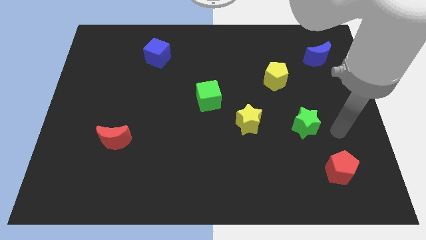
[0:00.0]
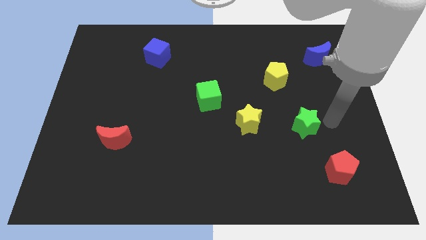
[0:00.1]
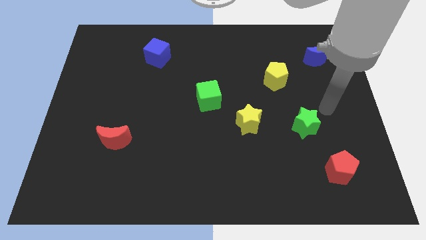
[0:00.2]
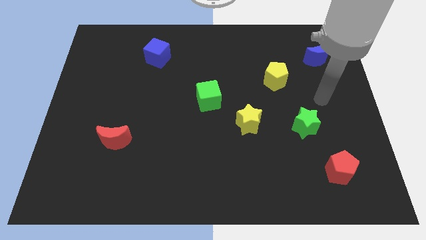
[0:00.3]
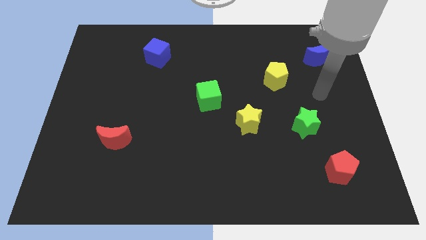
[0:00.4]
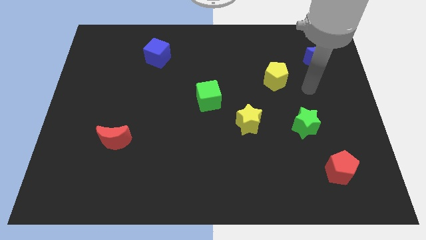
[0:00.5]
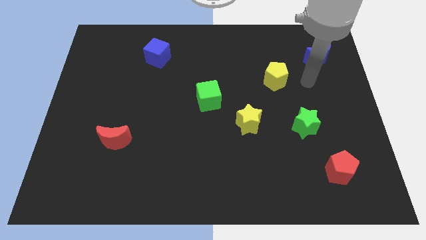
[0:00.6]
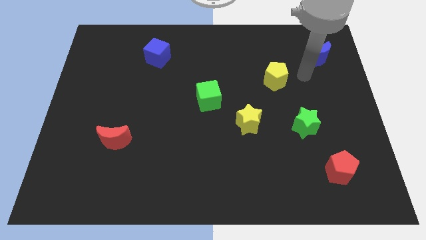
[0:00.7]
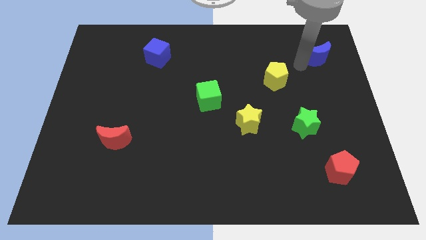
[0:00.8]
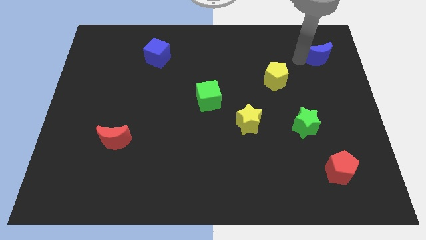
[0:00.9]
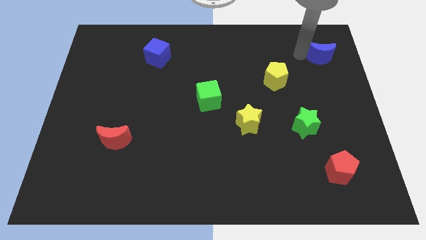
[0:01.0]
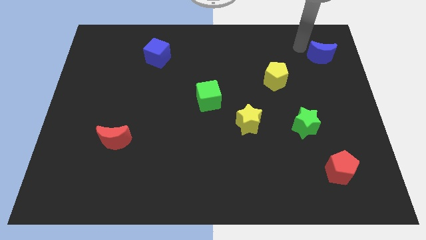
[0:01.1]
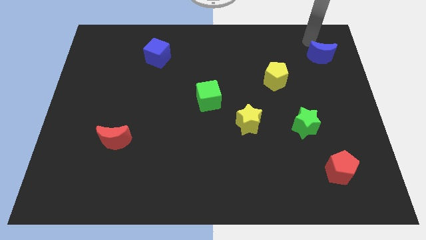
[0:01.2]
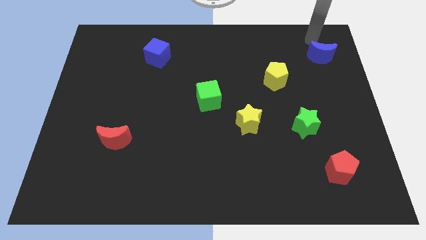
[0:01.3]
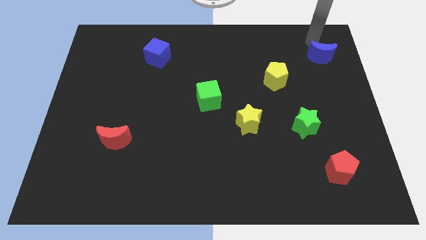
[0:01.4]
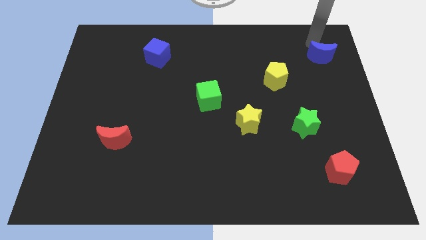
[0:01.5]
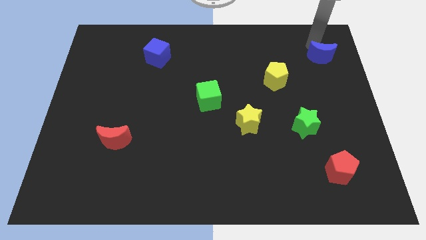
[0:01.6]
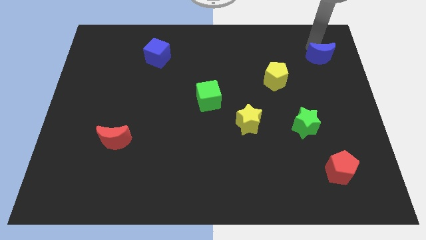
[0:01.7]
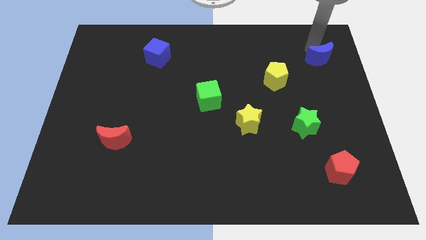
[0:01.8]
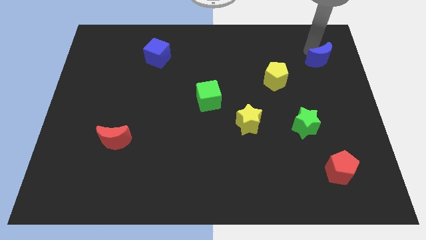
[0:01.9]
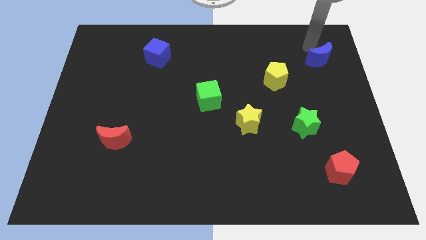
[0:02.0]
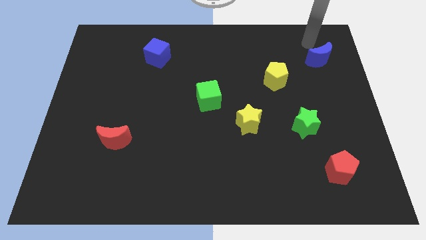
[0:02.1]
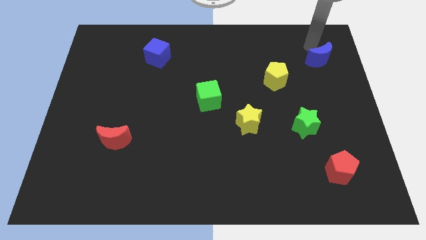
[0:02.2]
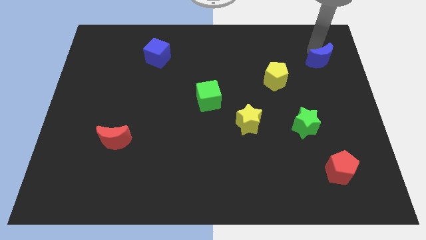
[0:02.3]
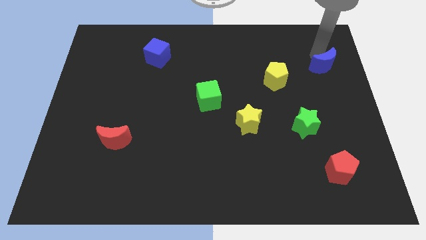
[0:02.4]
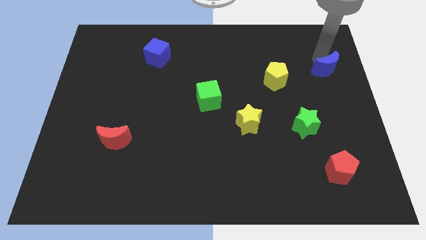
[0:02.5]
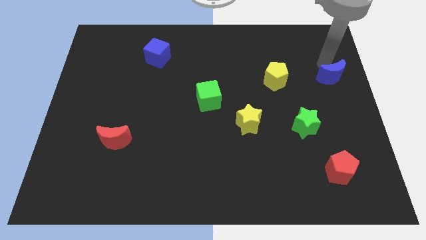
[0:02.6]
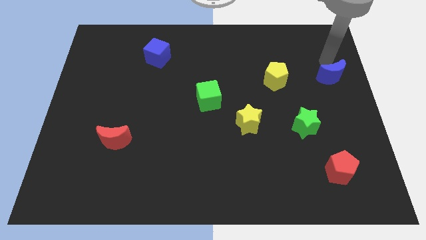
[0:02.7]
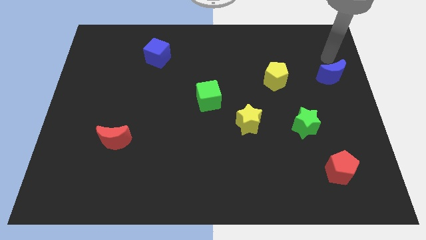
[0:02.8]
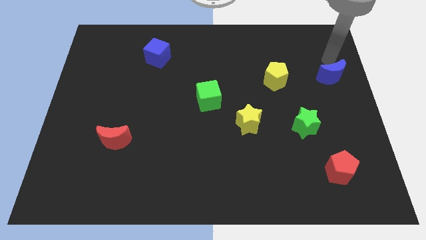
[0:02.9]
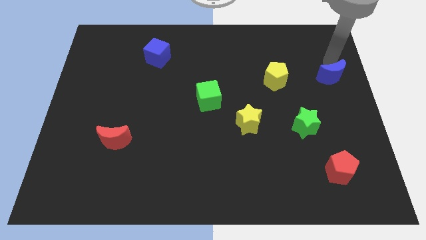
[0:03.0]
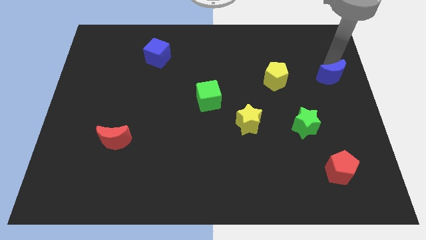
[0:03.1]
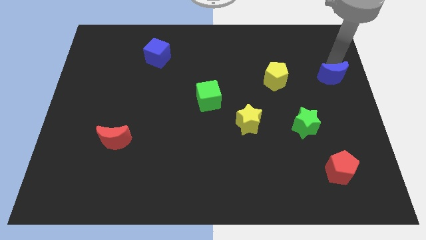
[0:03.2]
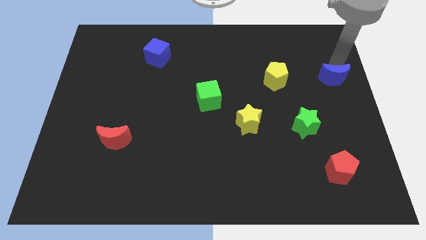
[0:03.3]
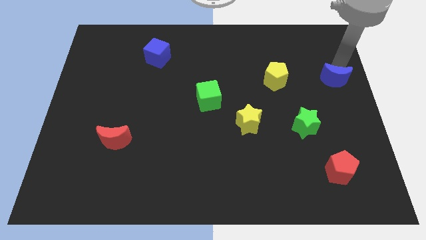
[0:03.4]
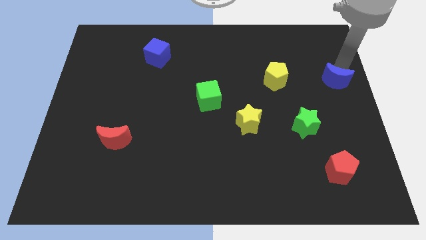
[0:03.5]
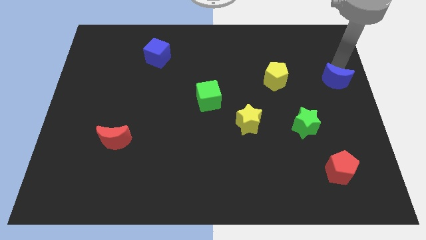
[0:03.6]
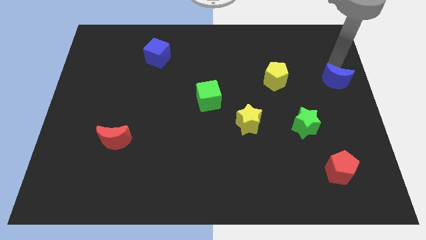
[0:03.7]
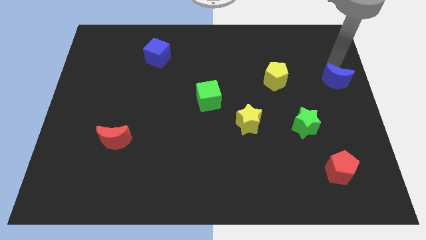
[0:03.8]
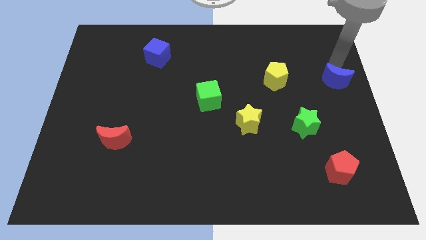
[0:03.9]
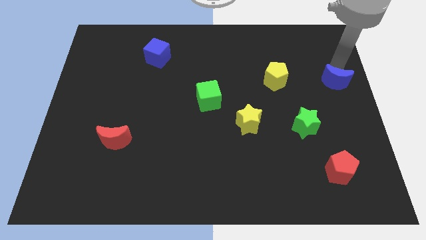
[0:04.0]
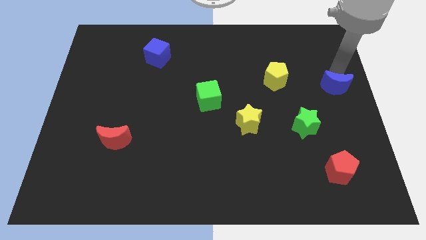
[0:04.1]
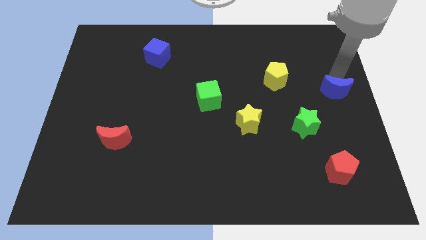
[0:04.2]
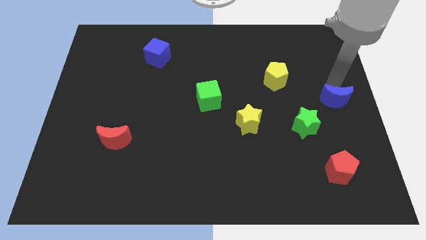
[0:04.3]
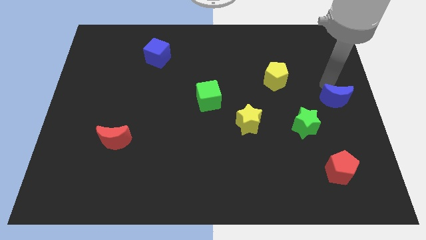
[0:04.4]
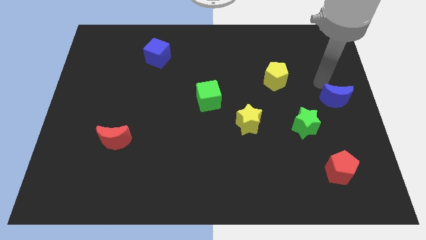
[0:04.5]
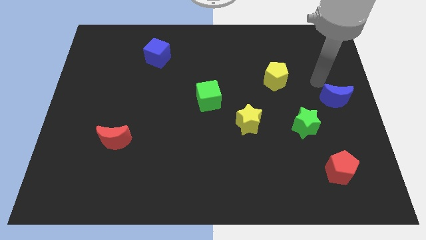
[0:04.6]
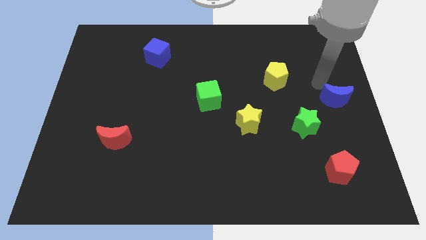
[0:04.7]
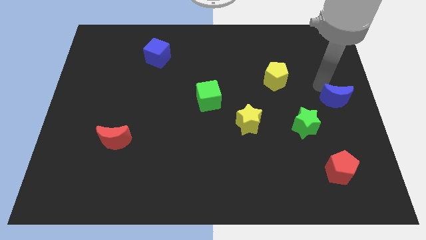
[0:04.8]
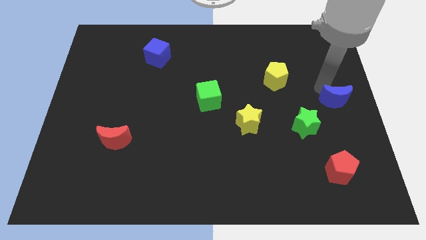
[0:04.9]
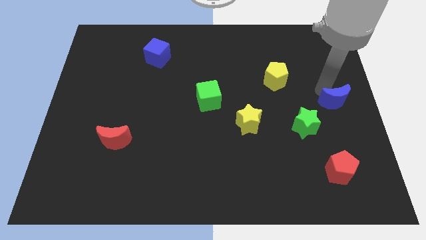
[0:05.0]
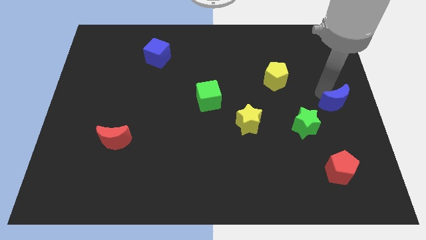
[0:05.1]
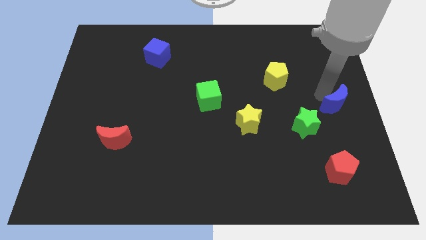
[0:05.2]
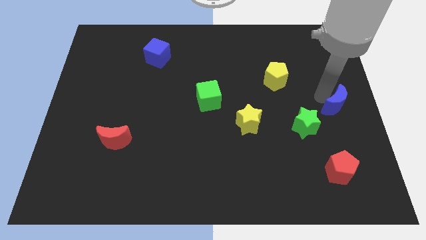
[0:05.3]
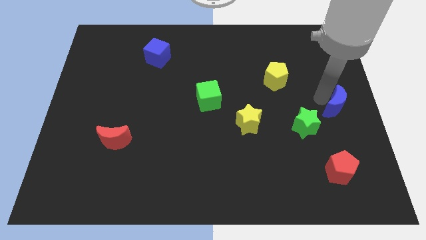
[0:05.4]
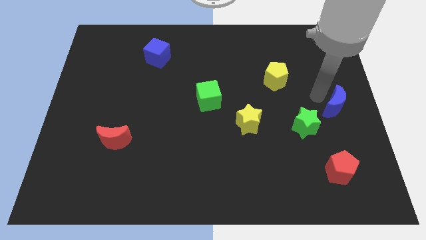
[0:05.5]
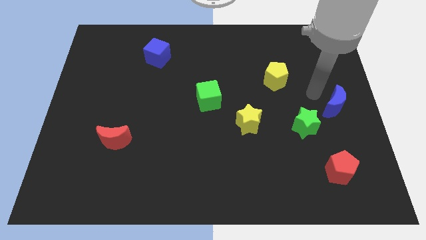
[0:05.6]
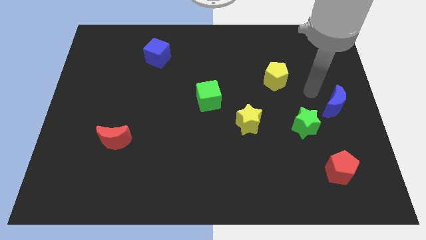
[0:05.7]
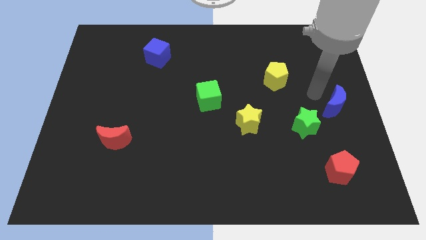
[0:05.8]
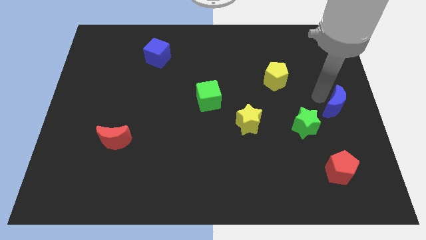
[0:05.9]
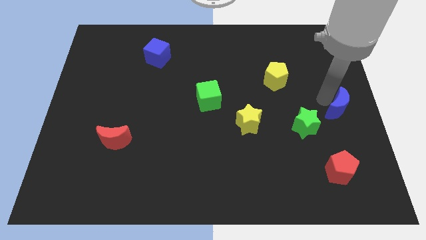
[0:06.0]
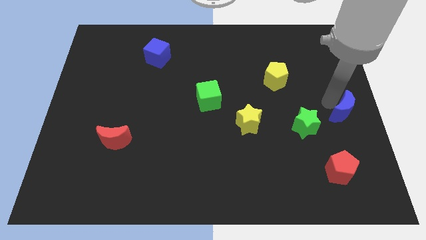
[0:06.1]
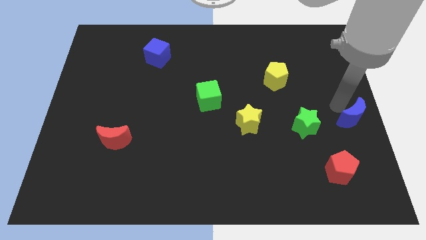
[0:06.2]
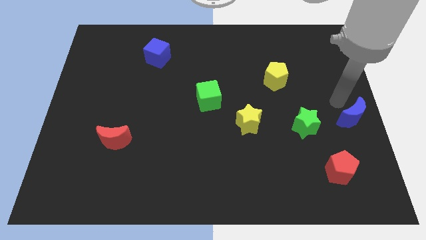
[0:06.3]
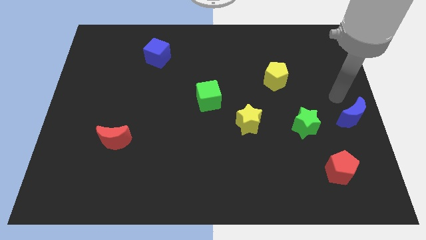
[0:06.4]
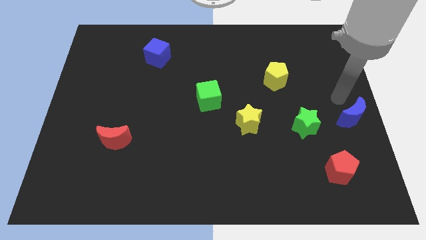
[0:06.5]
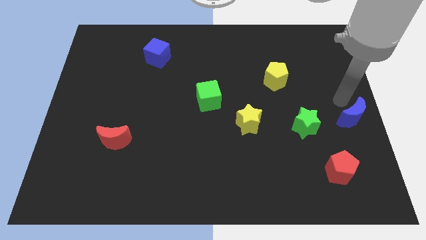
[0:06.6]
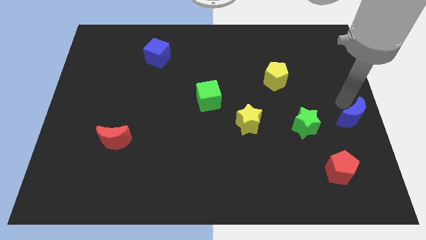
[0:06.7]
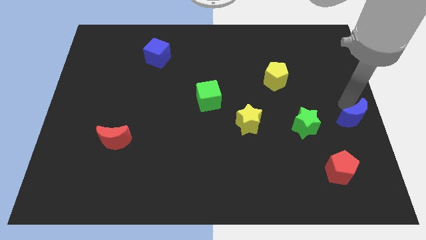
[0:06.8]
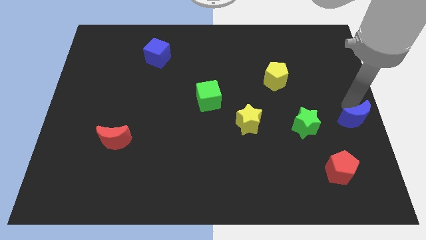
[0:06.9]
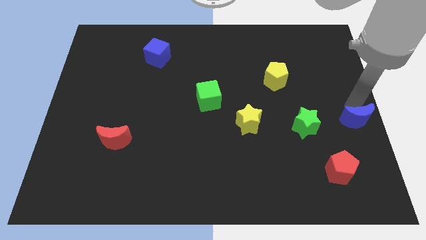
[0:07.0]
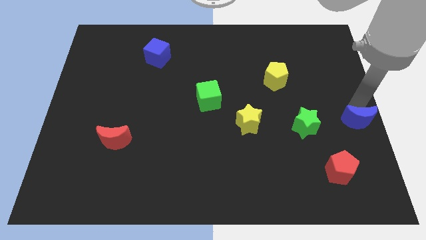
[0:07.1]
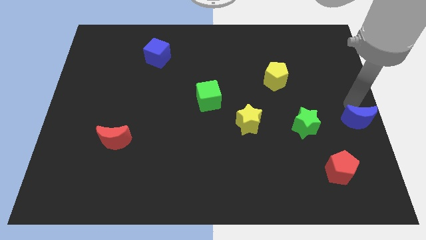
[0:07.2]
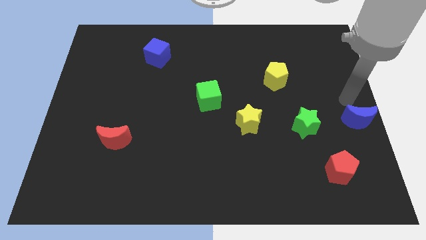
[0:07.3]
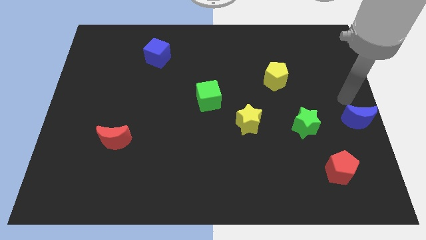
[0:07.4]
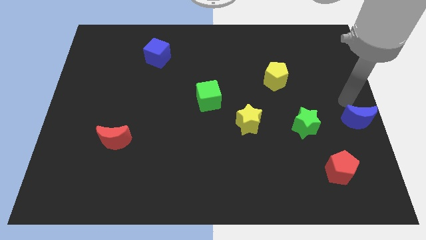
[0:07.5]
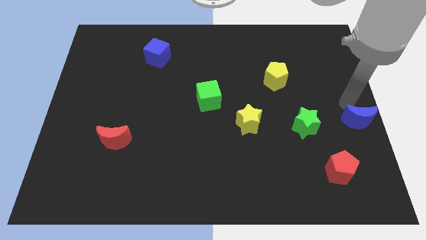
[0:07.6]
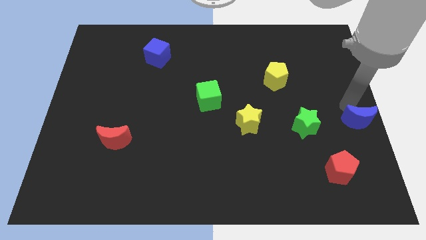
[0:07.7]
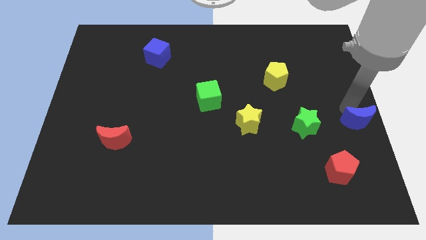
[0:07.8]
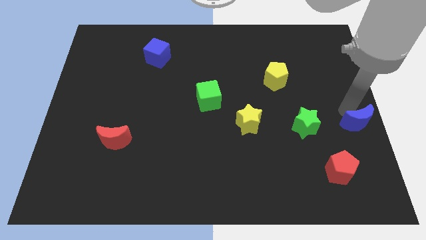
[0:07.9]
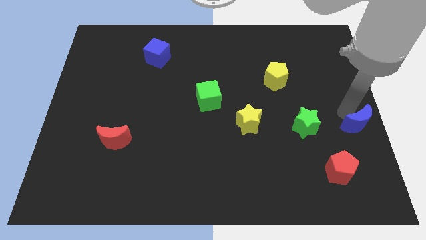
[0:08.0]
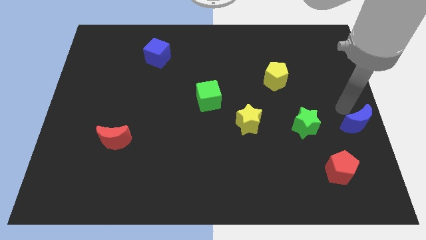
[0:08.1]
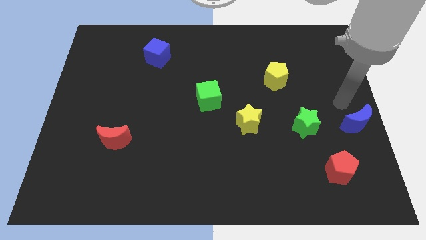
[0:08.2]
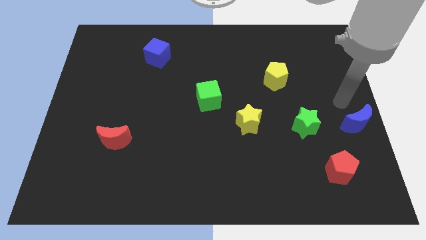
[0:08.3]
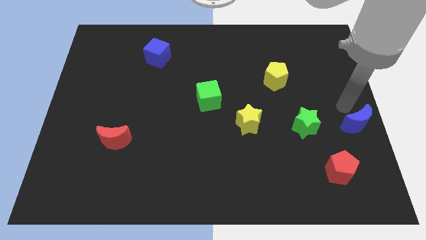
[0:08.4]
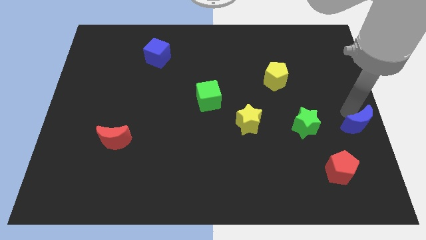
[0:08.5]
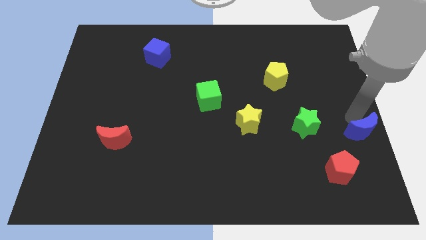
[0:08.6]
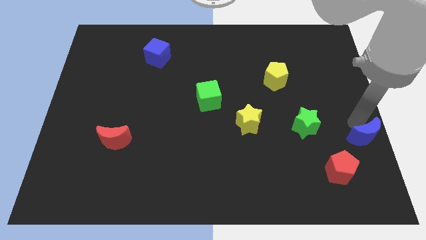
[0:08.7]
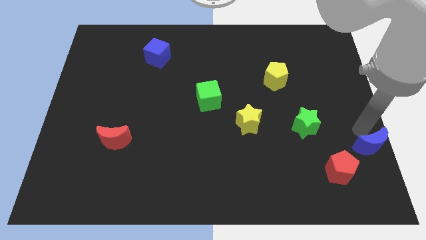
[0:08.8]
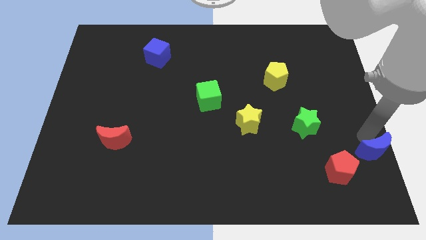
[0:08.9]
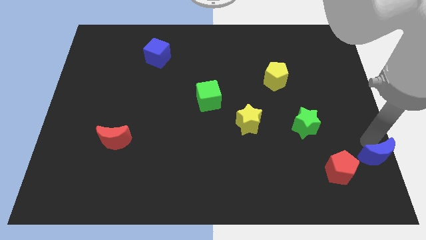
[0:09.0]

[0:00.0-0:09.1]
push the blue moon to the bottom right corner
